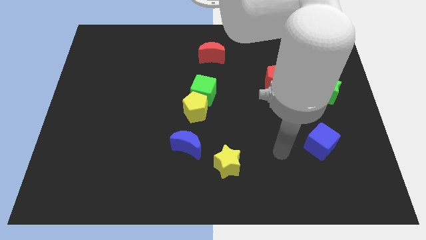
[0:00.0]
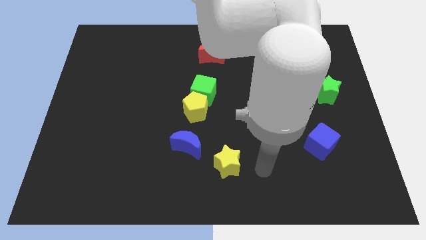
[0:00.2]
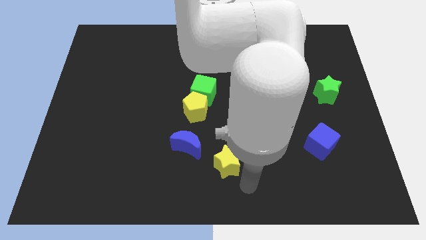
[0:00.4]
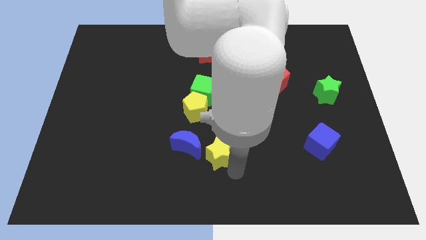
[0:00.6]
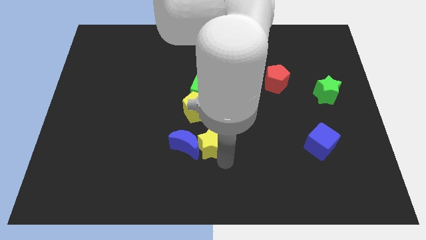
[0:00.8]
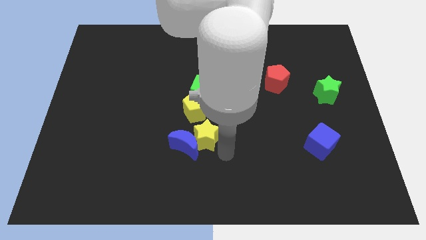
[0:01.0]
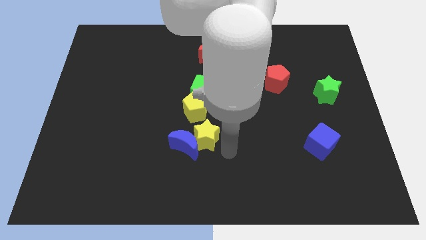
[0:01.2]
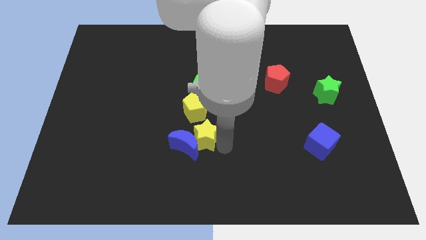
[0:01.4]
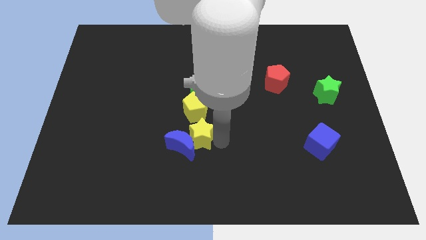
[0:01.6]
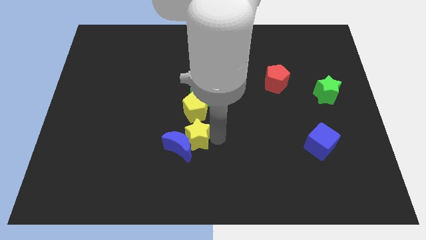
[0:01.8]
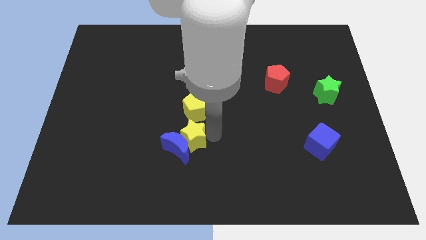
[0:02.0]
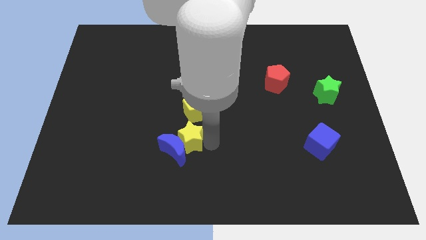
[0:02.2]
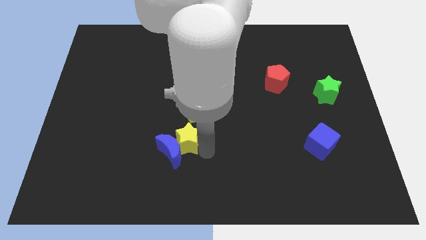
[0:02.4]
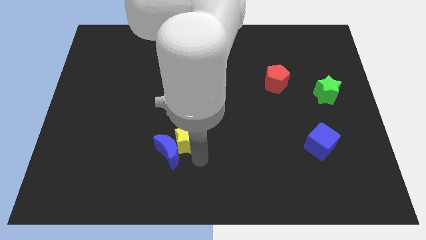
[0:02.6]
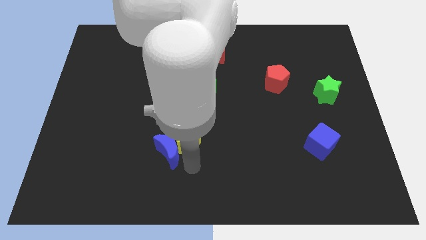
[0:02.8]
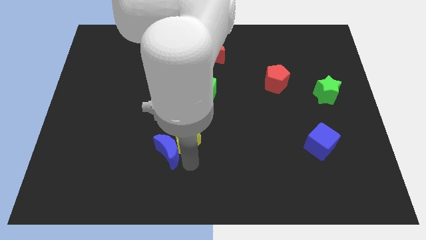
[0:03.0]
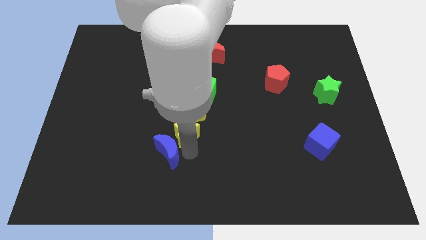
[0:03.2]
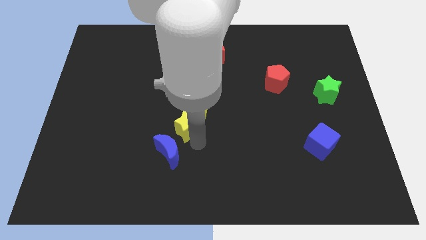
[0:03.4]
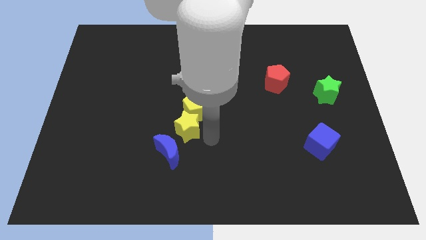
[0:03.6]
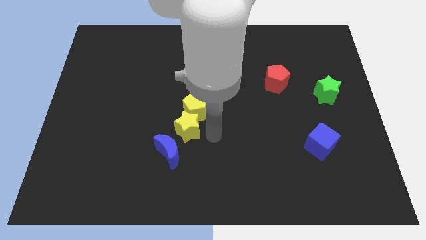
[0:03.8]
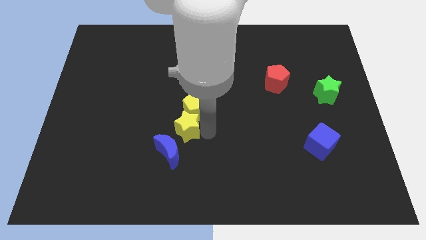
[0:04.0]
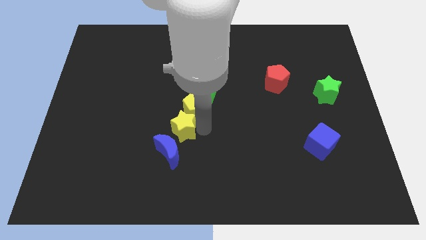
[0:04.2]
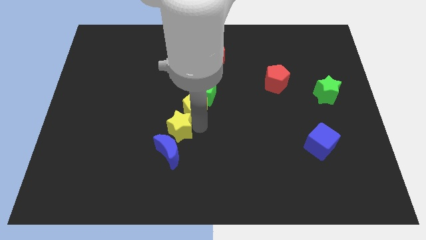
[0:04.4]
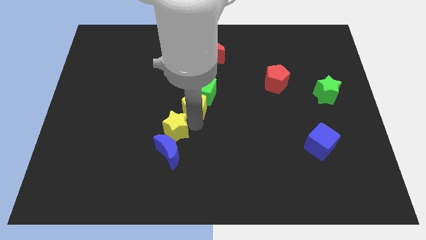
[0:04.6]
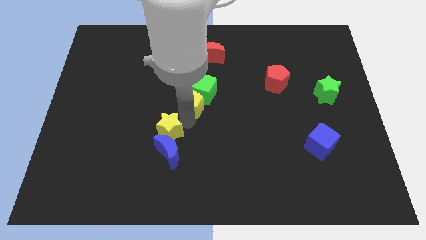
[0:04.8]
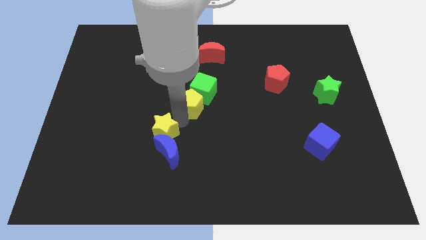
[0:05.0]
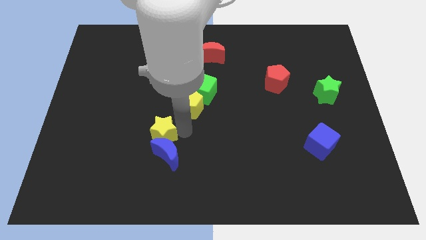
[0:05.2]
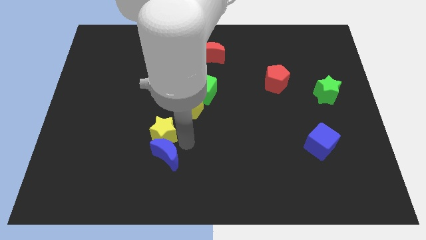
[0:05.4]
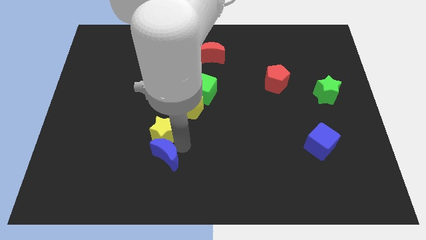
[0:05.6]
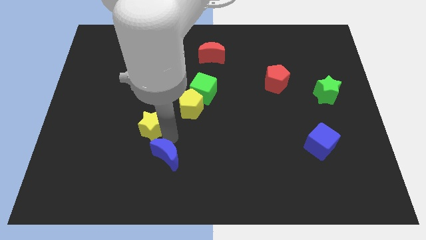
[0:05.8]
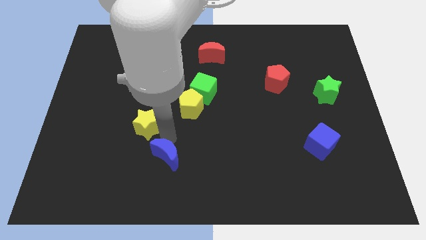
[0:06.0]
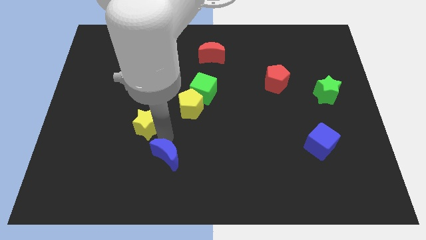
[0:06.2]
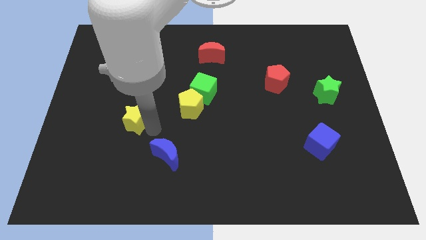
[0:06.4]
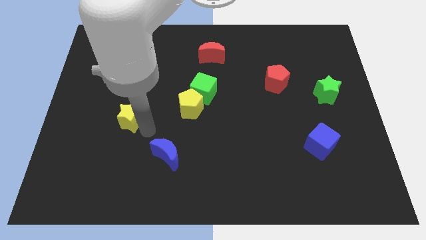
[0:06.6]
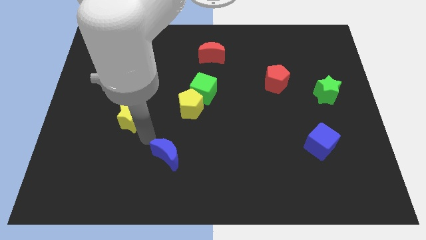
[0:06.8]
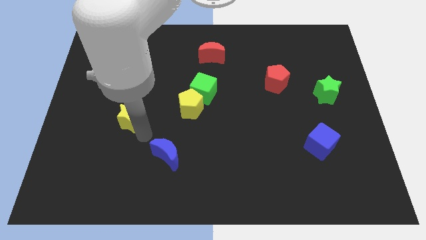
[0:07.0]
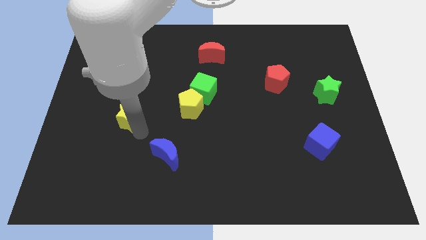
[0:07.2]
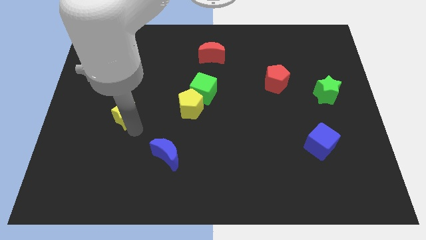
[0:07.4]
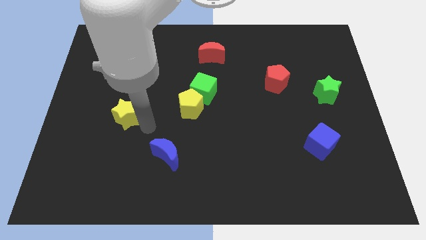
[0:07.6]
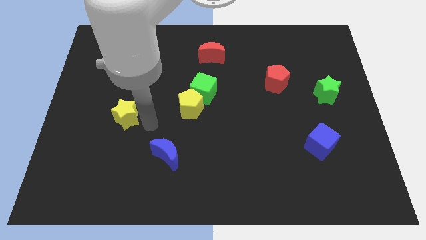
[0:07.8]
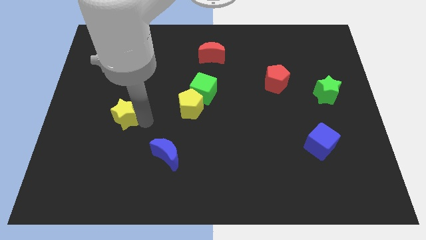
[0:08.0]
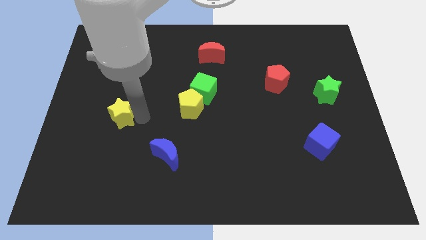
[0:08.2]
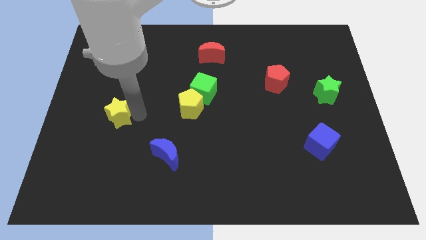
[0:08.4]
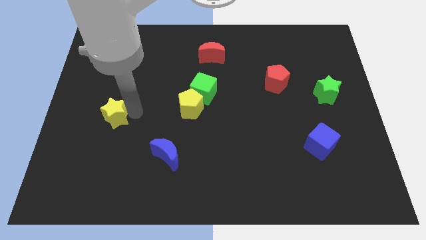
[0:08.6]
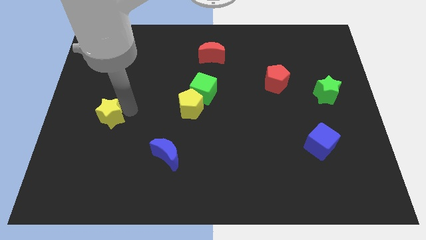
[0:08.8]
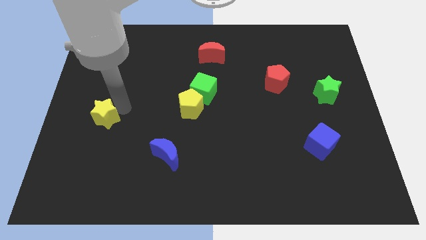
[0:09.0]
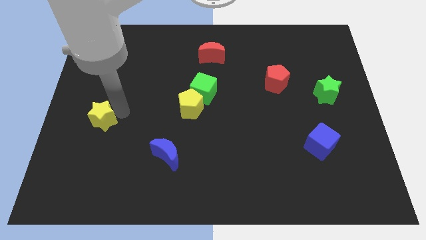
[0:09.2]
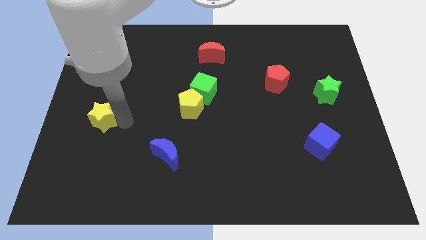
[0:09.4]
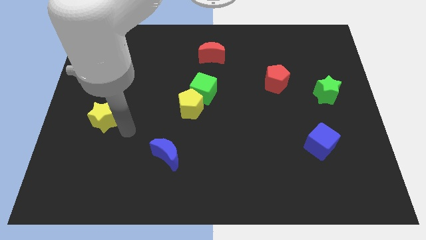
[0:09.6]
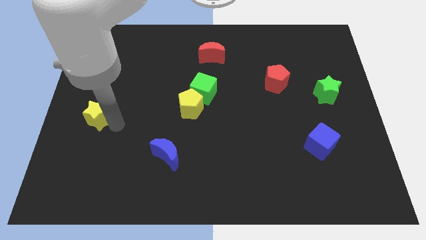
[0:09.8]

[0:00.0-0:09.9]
push the yellow star to the left side

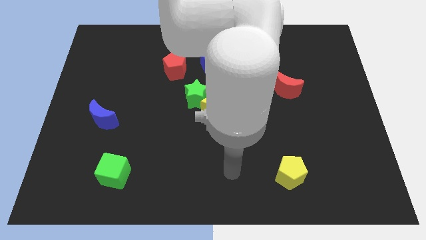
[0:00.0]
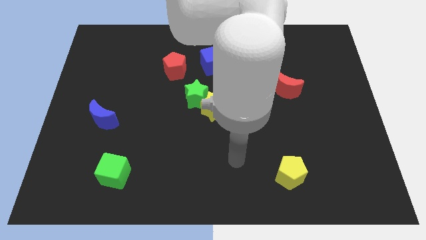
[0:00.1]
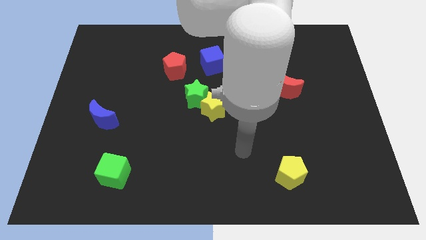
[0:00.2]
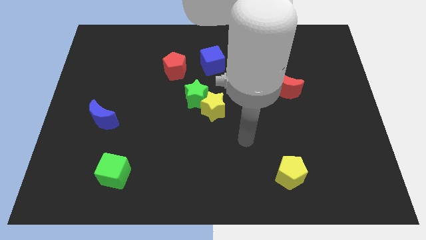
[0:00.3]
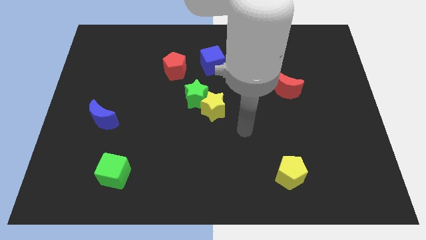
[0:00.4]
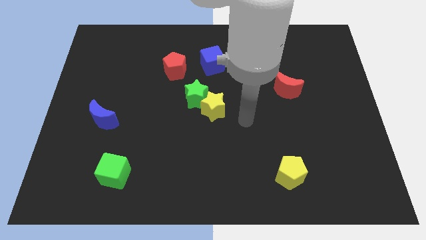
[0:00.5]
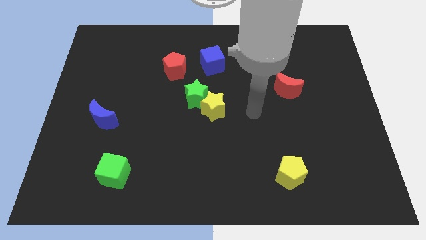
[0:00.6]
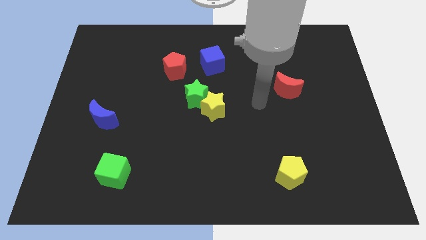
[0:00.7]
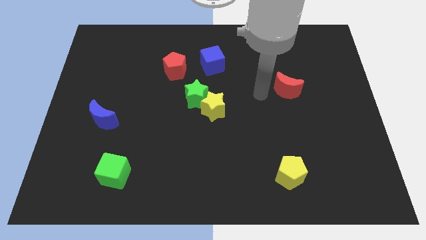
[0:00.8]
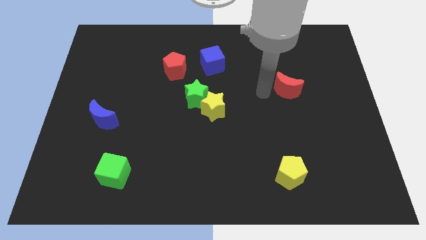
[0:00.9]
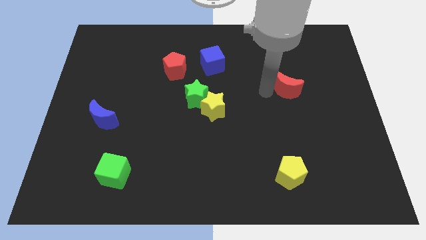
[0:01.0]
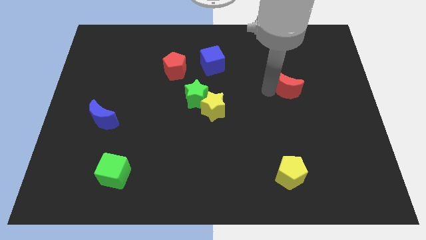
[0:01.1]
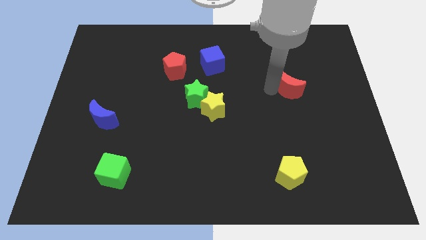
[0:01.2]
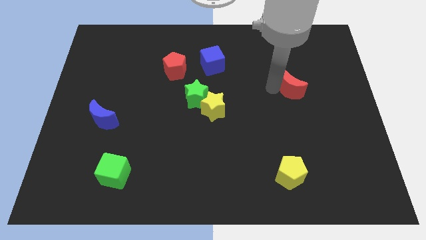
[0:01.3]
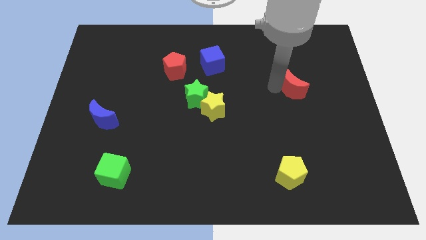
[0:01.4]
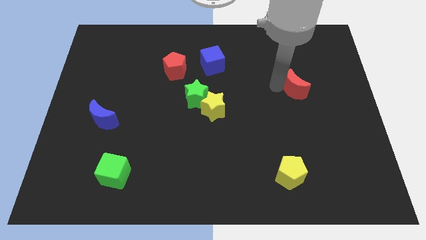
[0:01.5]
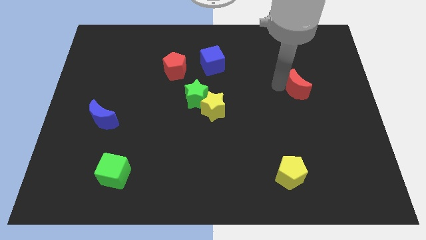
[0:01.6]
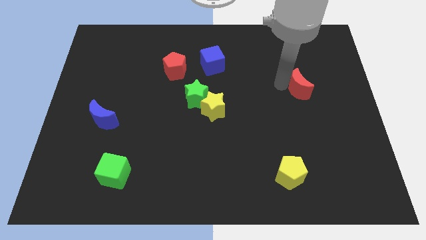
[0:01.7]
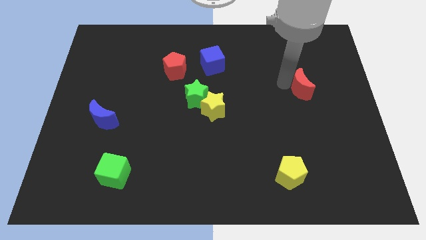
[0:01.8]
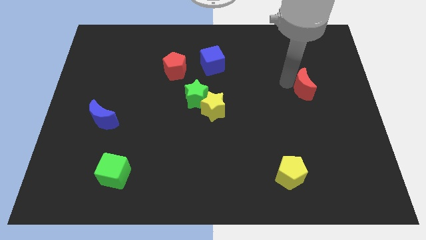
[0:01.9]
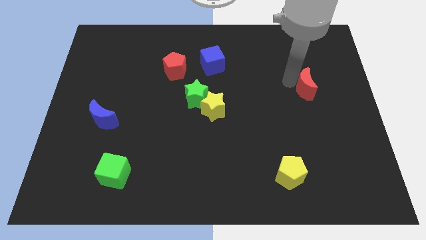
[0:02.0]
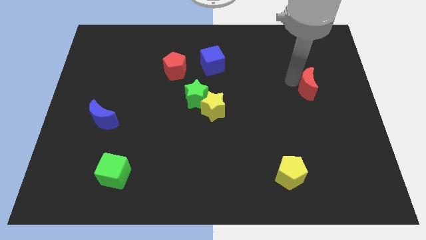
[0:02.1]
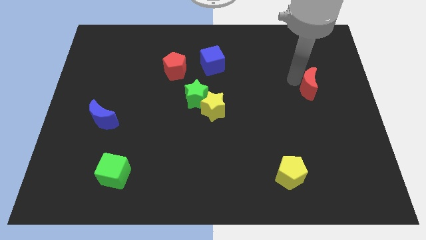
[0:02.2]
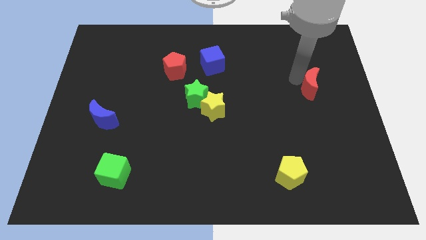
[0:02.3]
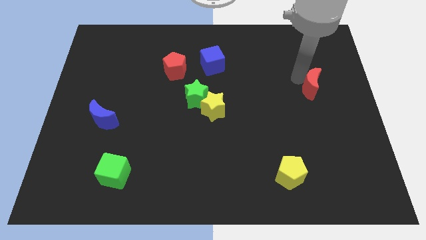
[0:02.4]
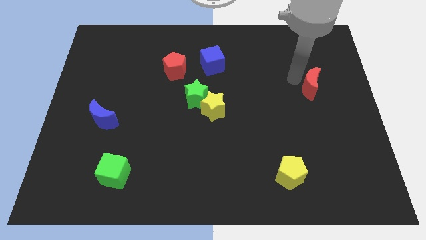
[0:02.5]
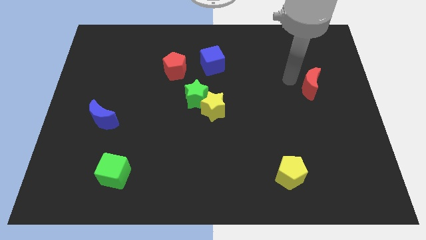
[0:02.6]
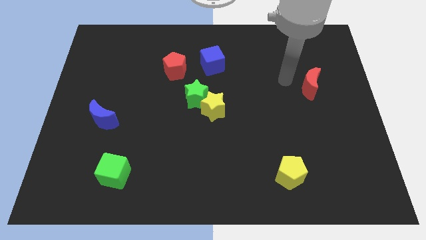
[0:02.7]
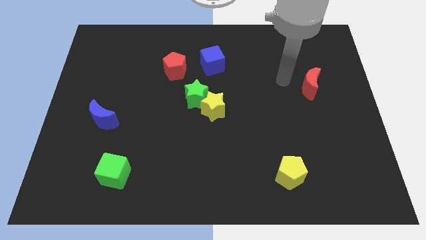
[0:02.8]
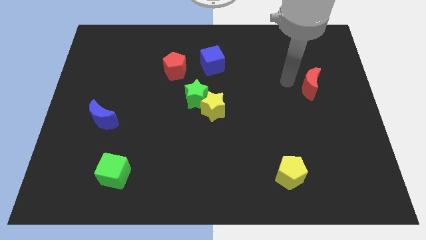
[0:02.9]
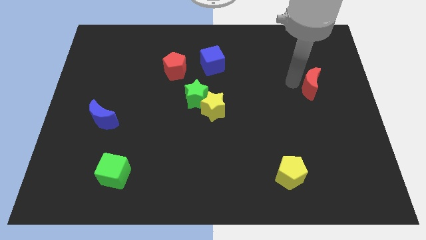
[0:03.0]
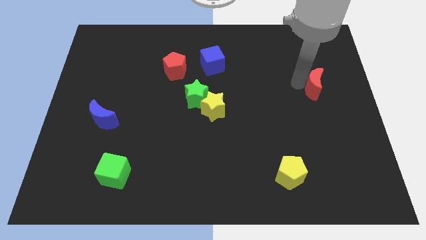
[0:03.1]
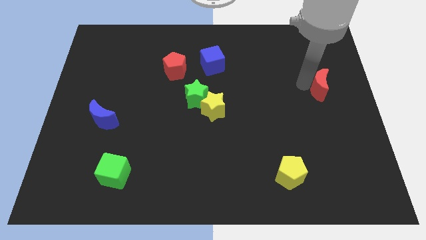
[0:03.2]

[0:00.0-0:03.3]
push the red moon to the right side of the board
